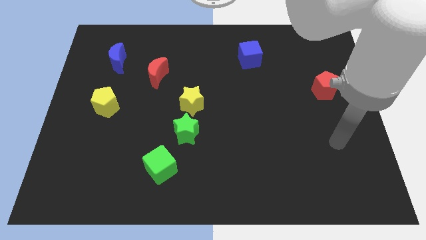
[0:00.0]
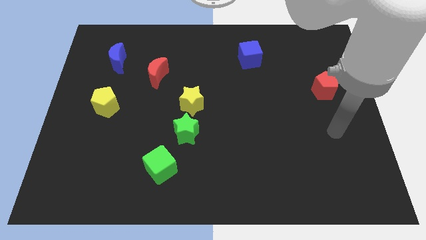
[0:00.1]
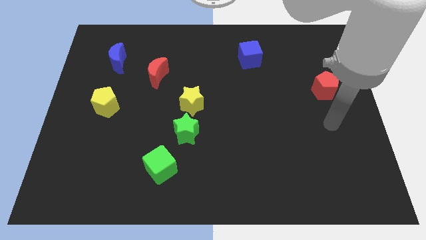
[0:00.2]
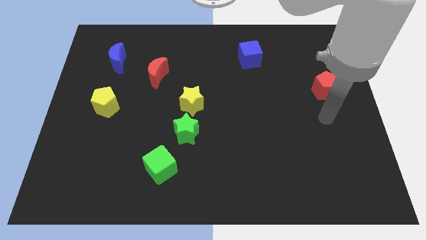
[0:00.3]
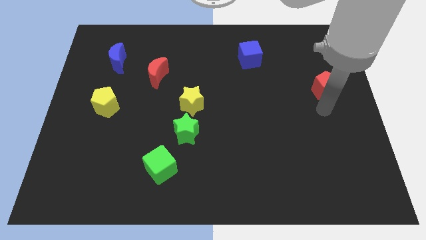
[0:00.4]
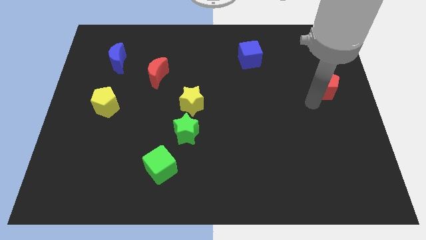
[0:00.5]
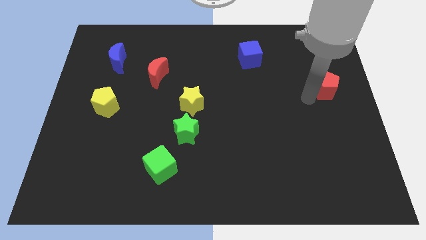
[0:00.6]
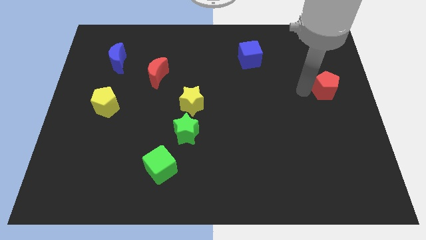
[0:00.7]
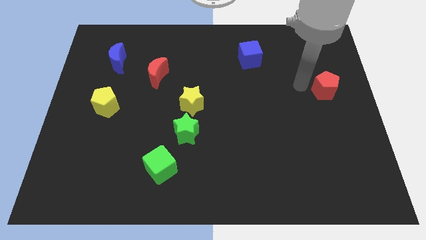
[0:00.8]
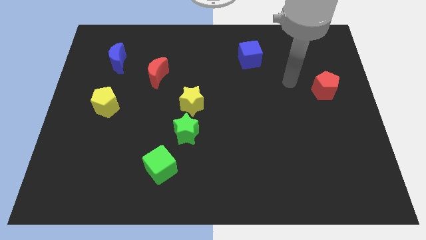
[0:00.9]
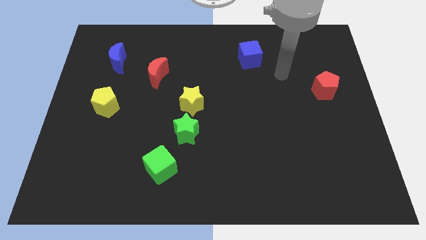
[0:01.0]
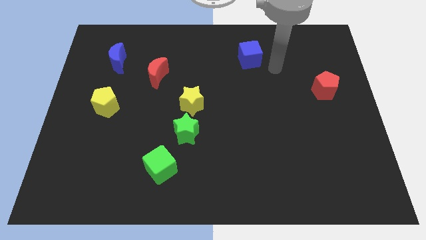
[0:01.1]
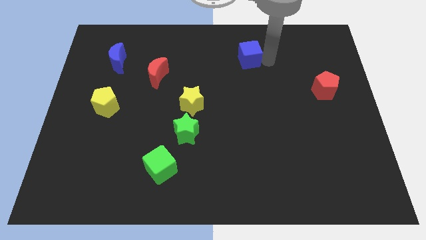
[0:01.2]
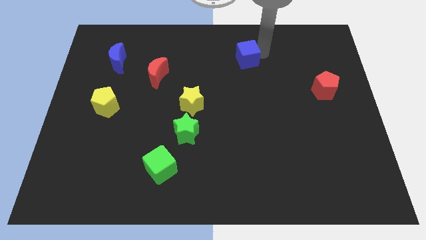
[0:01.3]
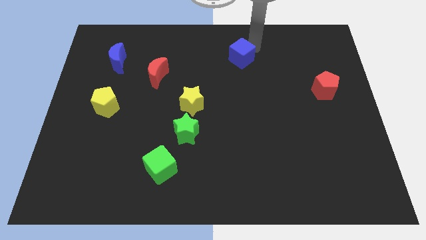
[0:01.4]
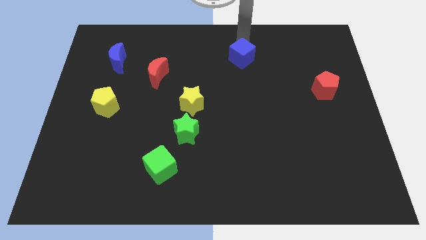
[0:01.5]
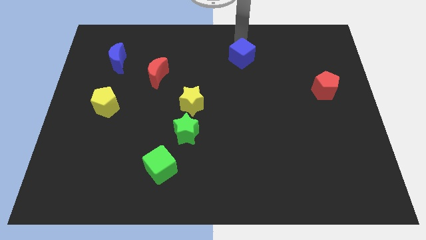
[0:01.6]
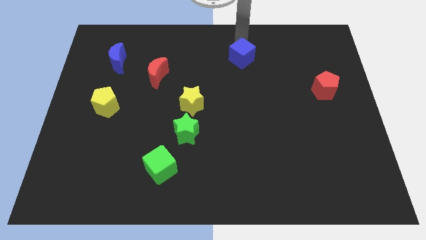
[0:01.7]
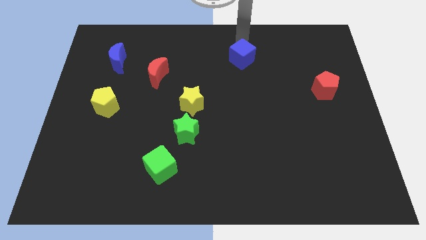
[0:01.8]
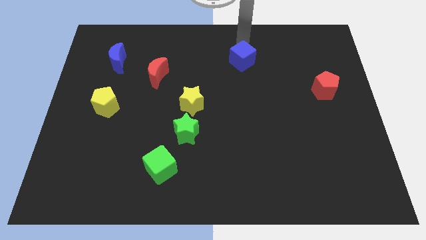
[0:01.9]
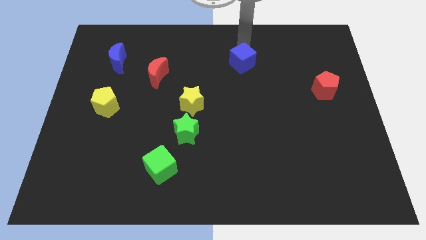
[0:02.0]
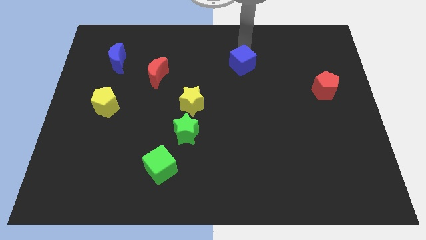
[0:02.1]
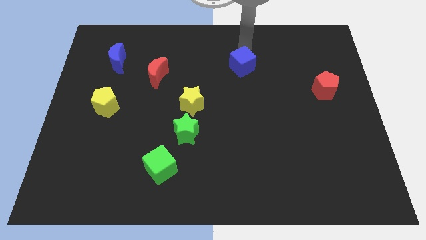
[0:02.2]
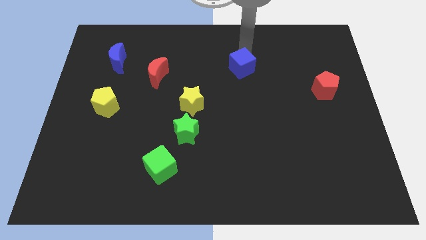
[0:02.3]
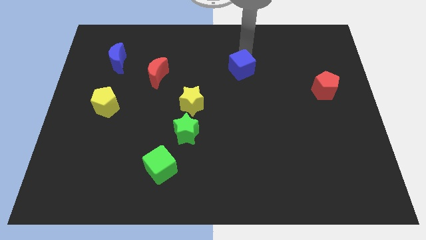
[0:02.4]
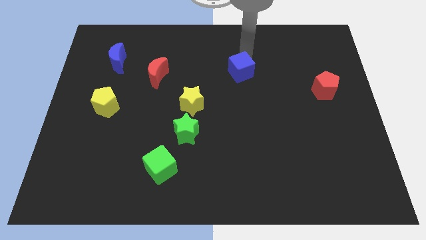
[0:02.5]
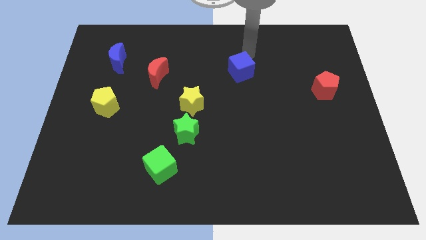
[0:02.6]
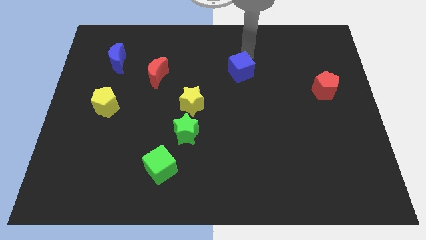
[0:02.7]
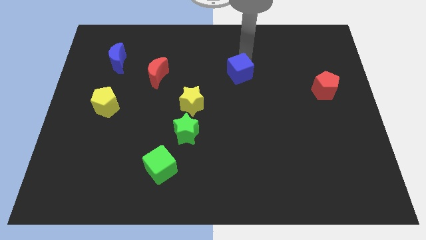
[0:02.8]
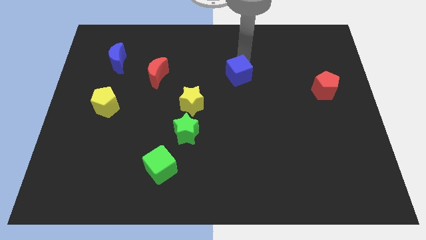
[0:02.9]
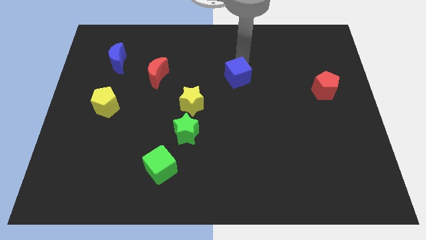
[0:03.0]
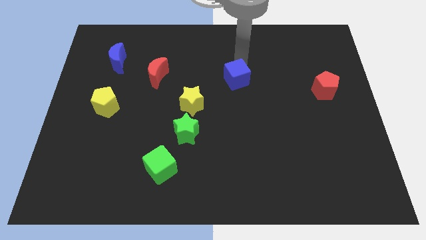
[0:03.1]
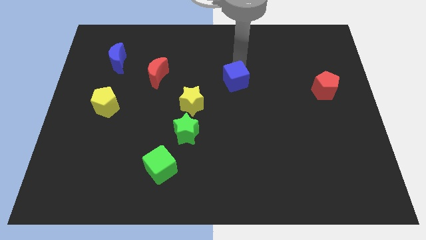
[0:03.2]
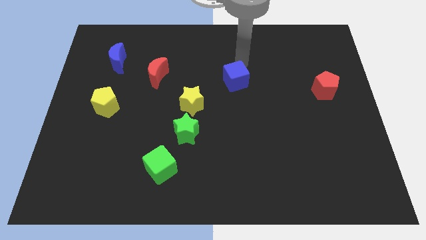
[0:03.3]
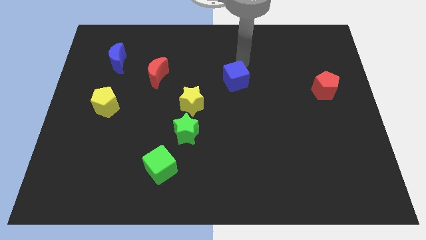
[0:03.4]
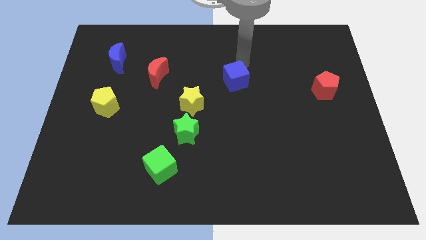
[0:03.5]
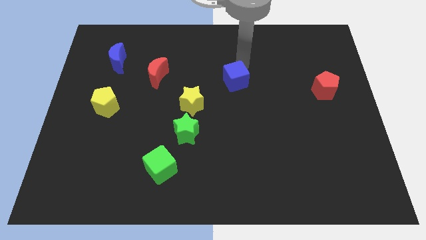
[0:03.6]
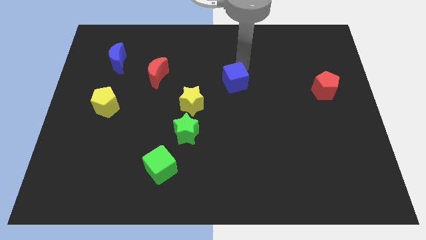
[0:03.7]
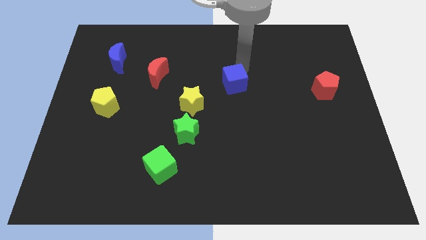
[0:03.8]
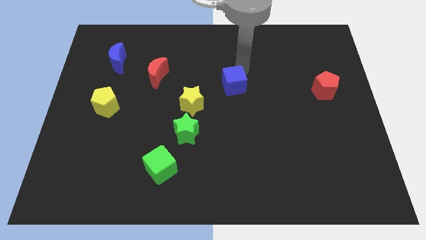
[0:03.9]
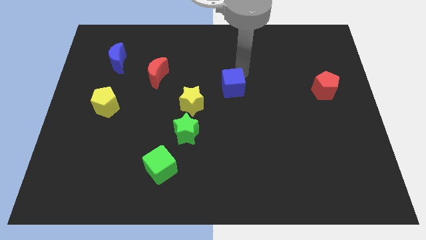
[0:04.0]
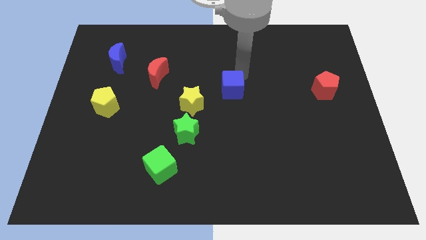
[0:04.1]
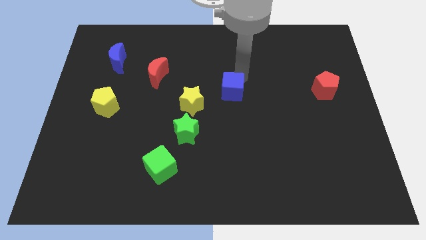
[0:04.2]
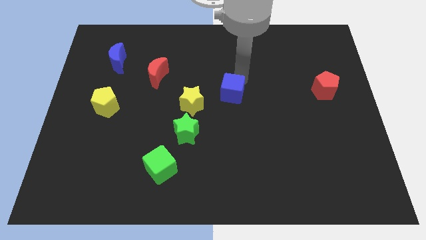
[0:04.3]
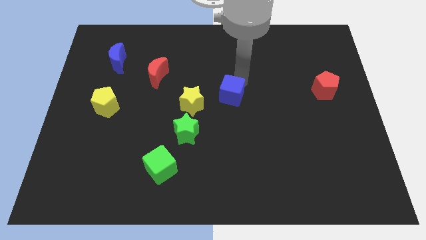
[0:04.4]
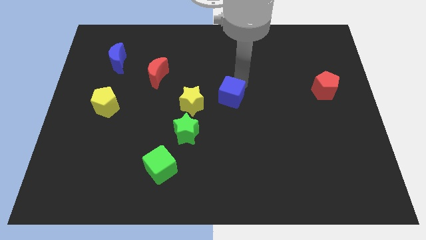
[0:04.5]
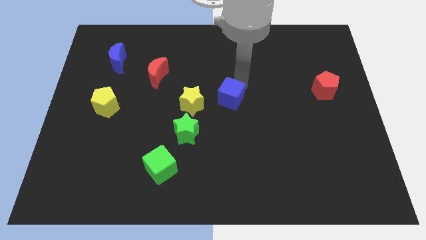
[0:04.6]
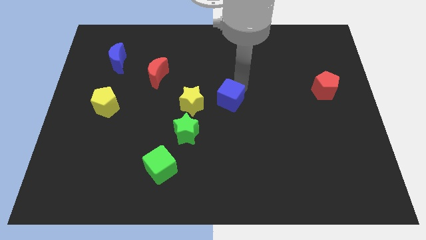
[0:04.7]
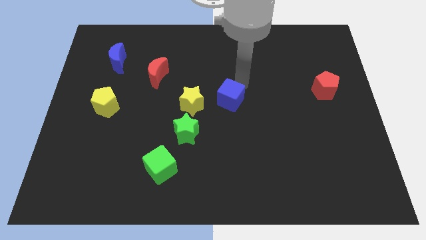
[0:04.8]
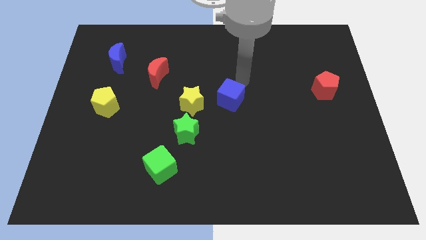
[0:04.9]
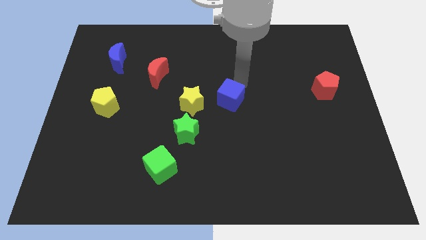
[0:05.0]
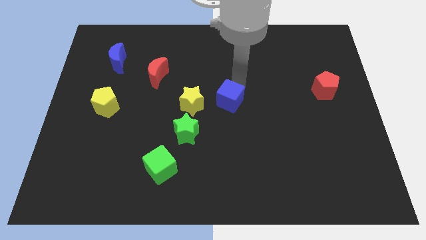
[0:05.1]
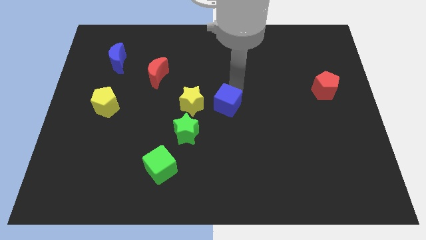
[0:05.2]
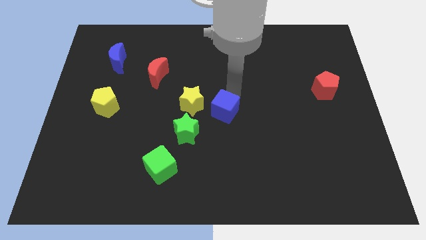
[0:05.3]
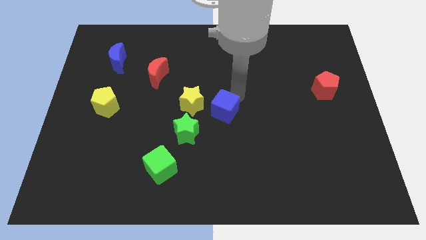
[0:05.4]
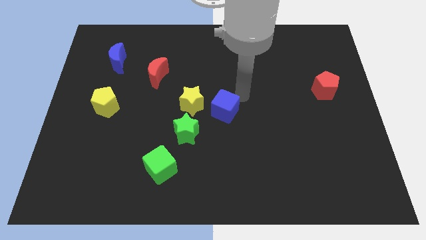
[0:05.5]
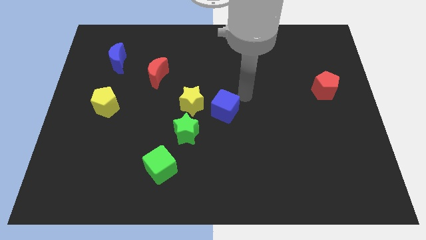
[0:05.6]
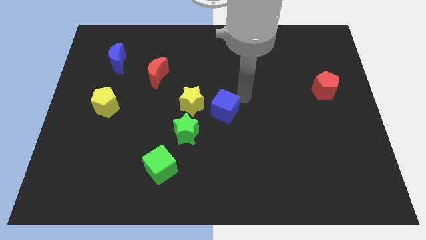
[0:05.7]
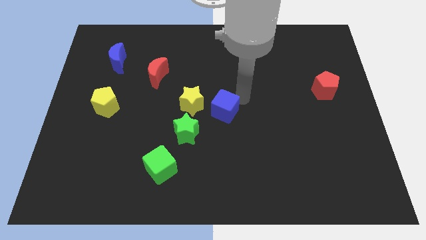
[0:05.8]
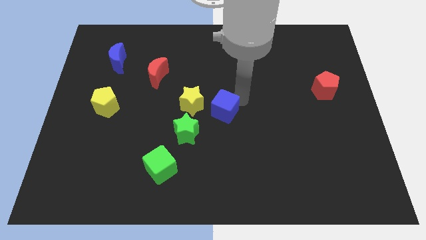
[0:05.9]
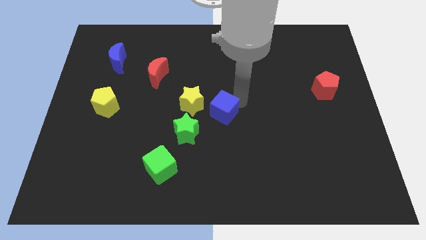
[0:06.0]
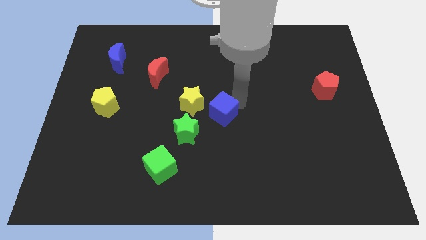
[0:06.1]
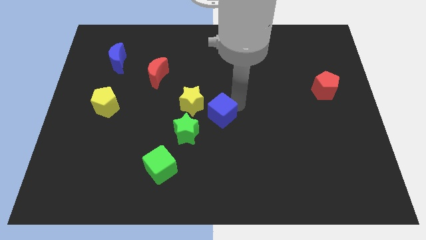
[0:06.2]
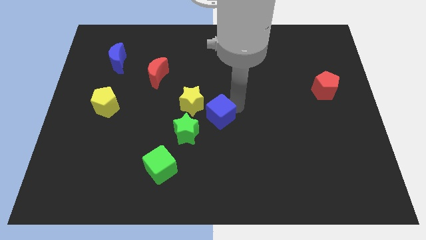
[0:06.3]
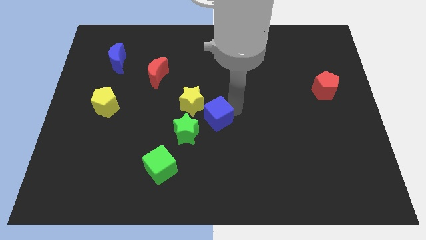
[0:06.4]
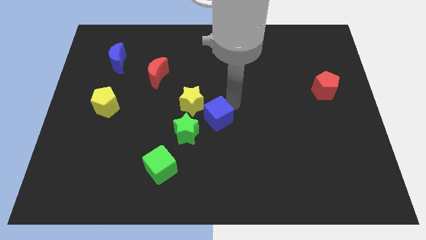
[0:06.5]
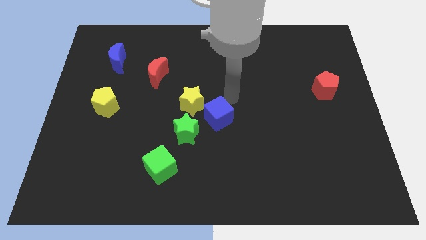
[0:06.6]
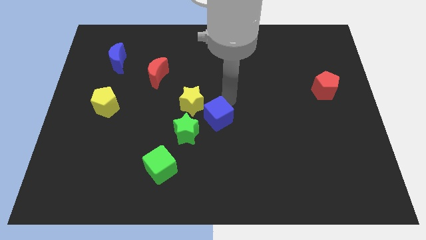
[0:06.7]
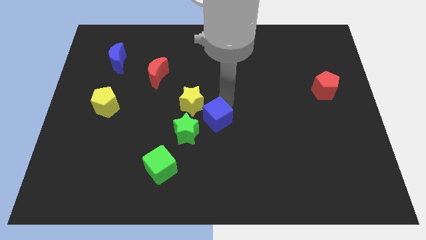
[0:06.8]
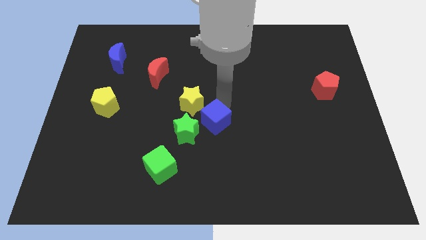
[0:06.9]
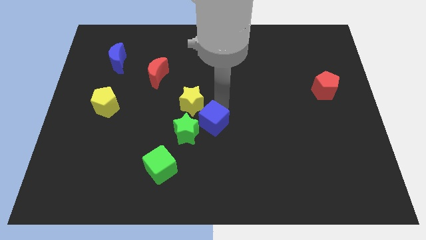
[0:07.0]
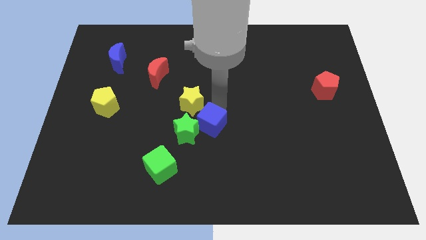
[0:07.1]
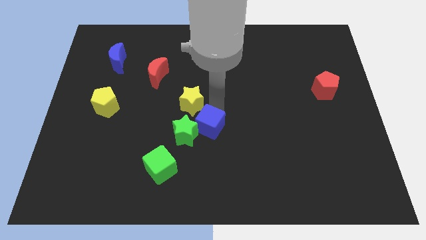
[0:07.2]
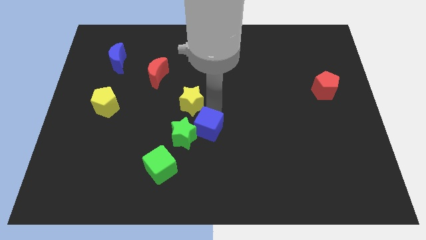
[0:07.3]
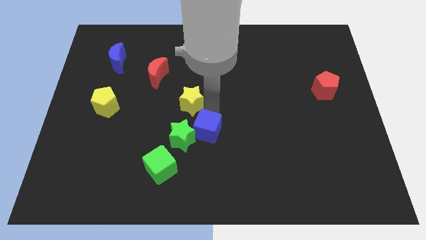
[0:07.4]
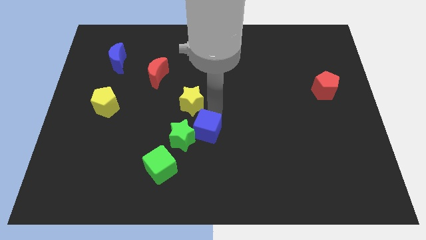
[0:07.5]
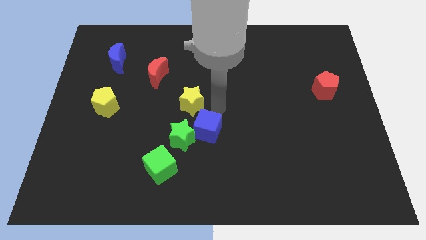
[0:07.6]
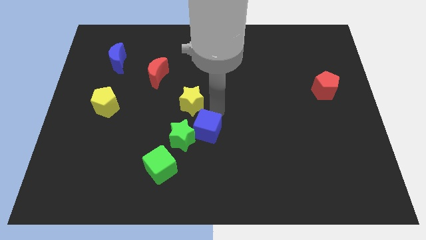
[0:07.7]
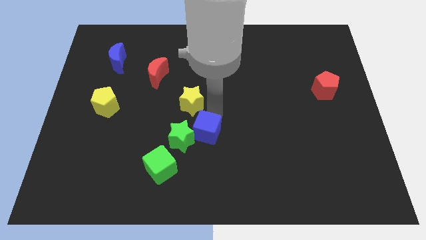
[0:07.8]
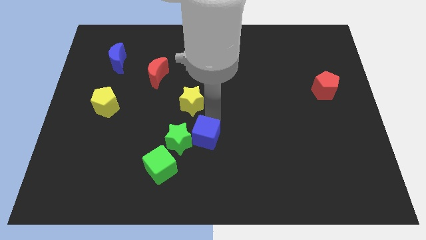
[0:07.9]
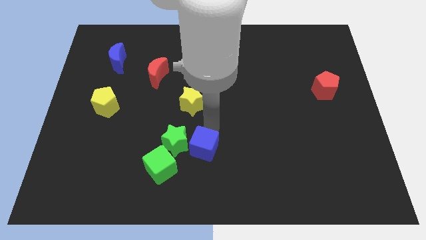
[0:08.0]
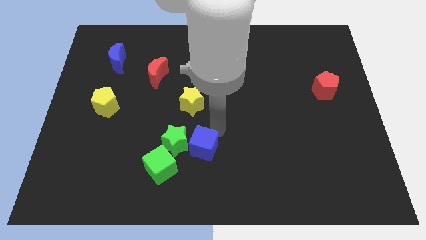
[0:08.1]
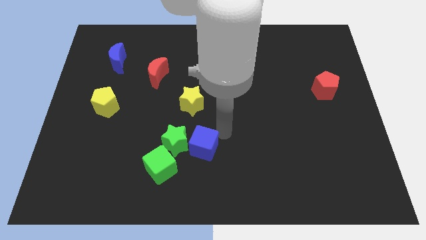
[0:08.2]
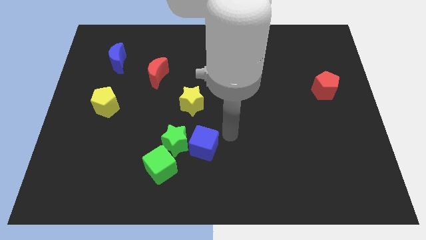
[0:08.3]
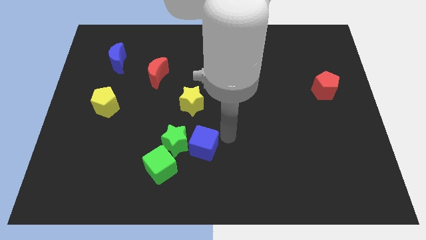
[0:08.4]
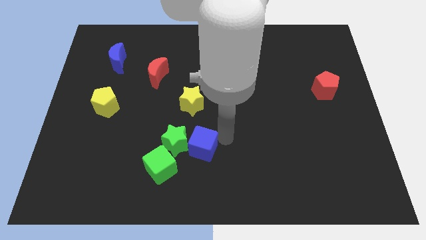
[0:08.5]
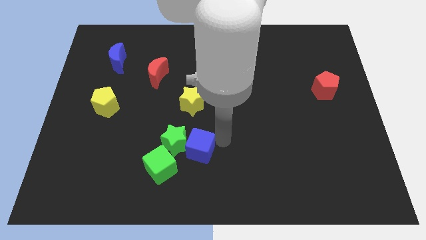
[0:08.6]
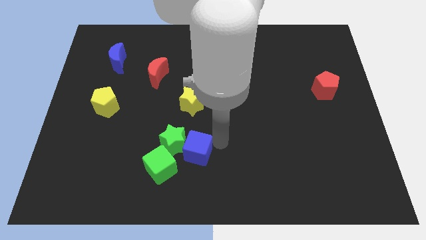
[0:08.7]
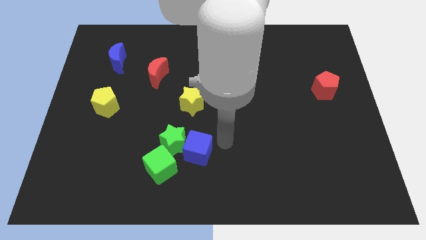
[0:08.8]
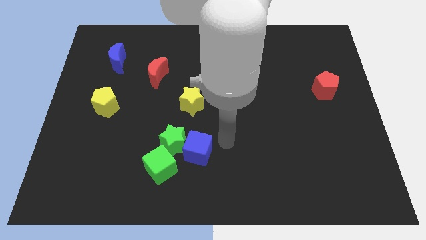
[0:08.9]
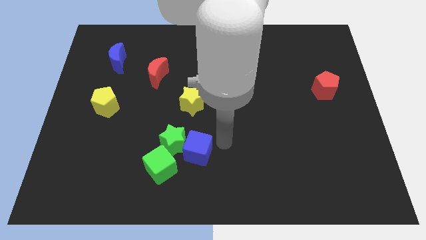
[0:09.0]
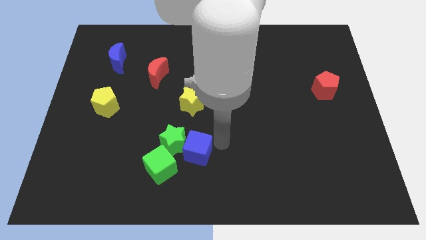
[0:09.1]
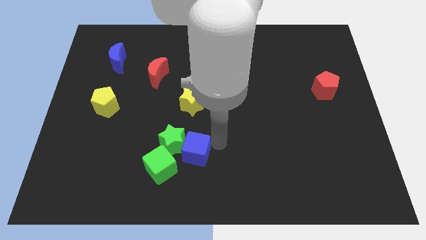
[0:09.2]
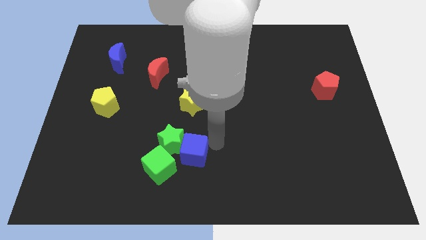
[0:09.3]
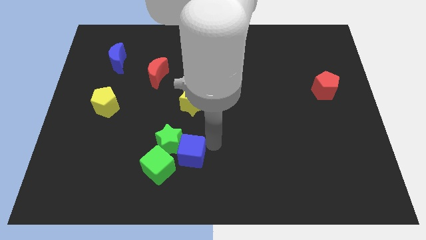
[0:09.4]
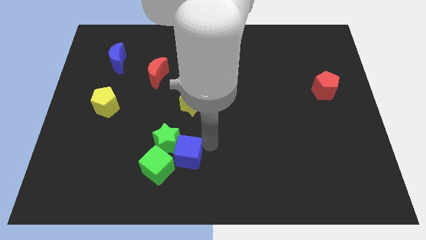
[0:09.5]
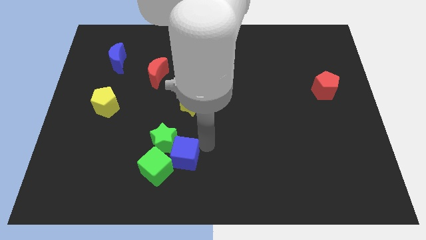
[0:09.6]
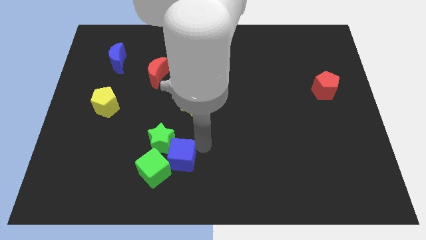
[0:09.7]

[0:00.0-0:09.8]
slide the blue cube towards the green cube
